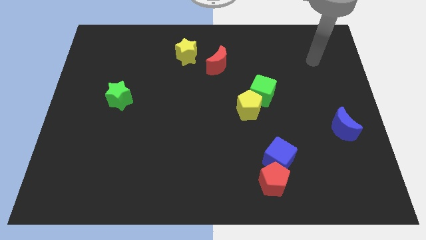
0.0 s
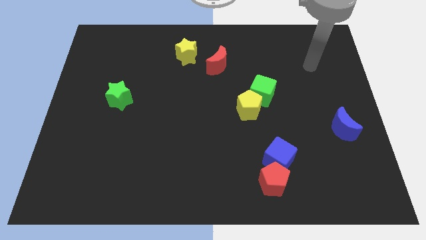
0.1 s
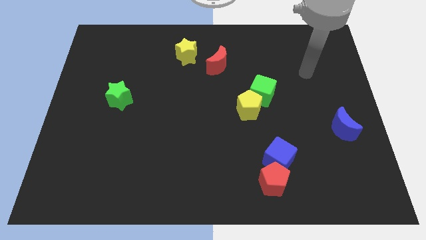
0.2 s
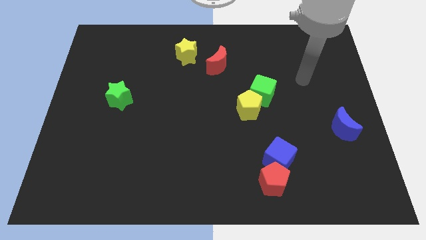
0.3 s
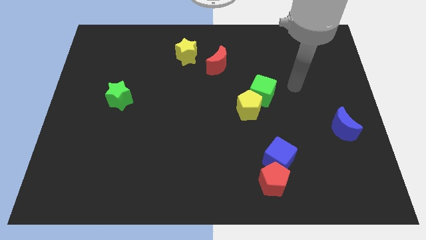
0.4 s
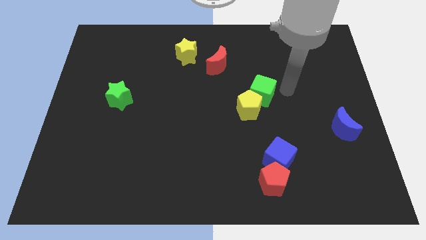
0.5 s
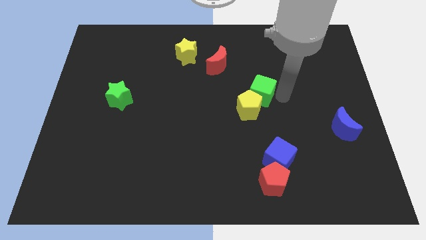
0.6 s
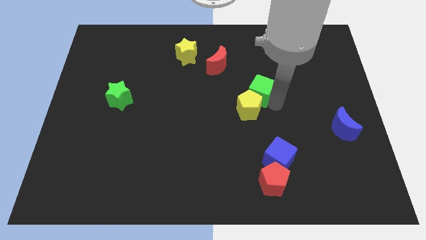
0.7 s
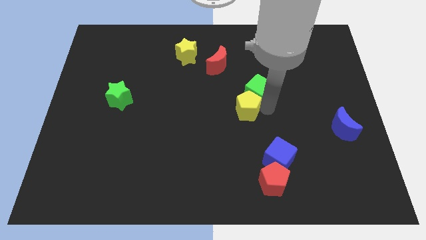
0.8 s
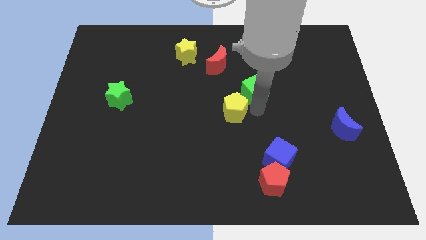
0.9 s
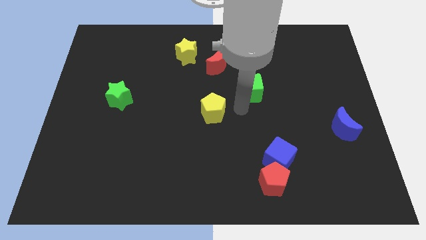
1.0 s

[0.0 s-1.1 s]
pull the green cube apart from the yellow pentagon

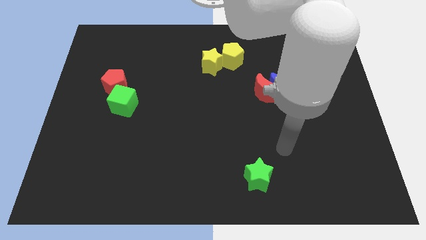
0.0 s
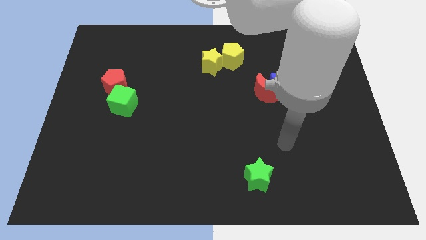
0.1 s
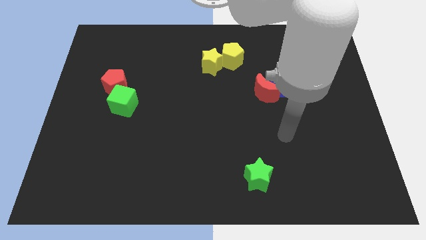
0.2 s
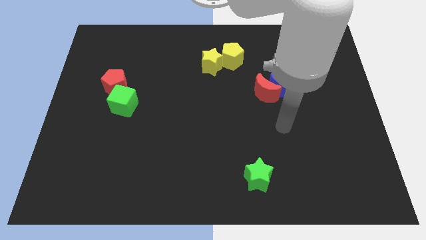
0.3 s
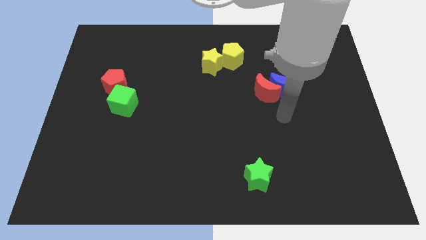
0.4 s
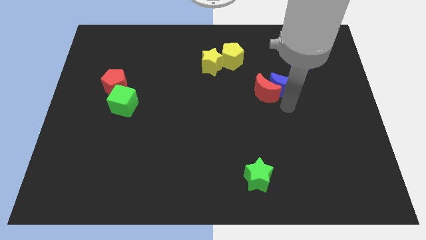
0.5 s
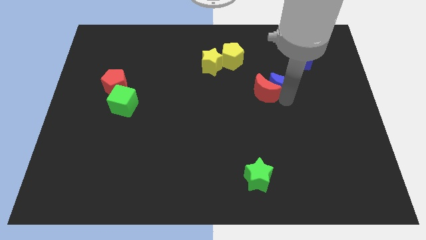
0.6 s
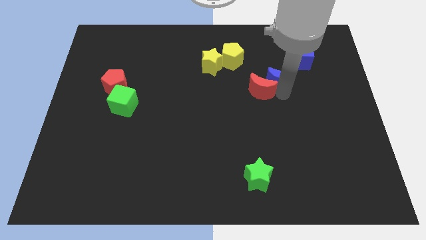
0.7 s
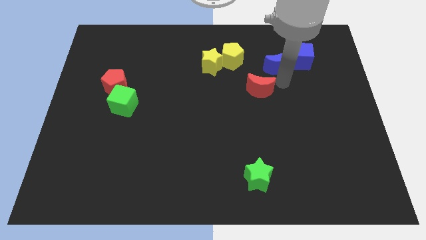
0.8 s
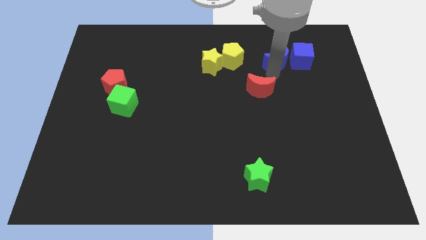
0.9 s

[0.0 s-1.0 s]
separate the red moon from the blue moon

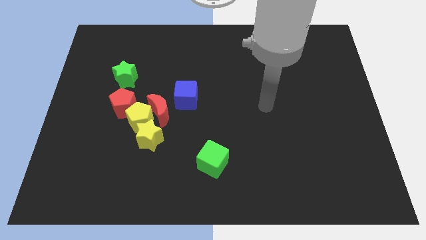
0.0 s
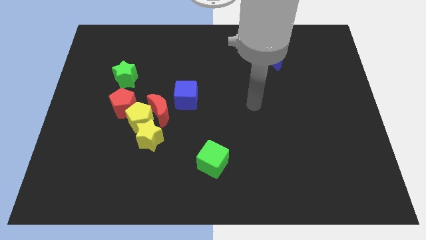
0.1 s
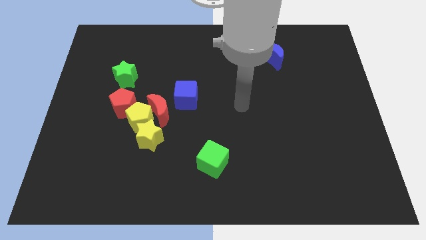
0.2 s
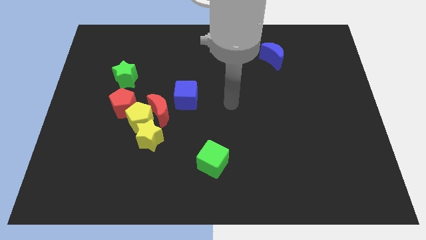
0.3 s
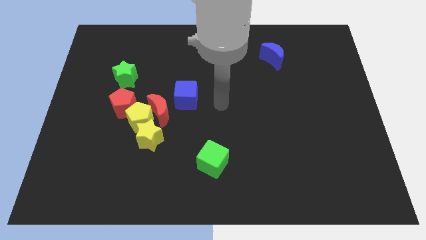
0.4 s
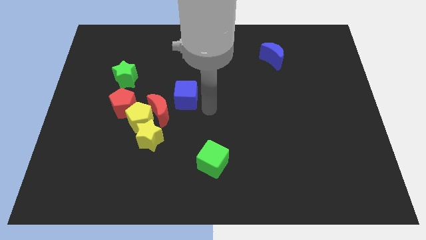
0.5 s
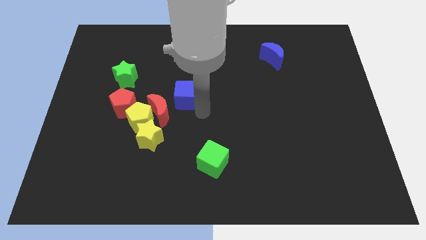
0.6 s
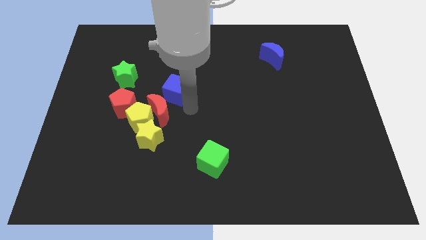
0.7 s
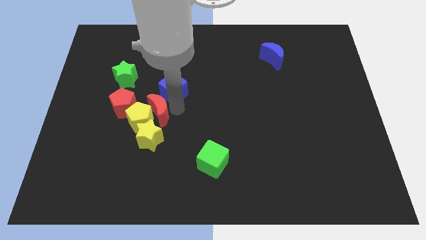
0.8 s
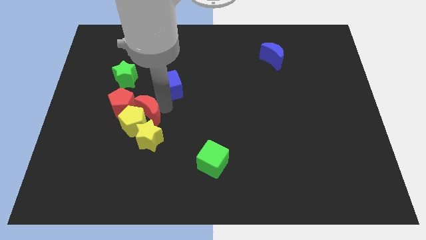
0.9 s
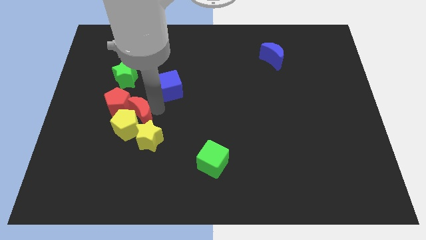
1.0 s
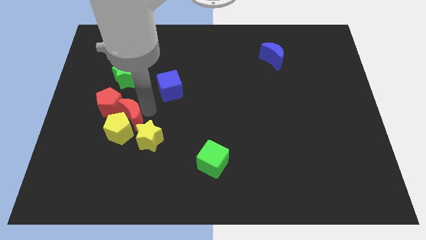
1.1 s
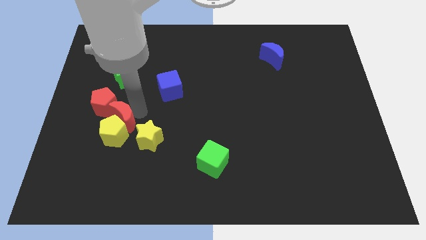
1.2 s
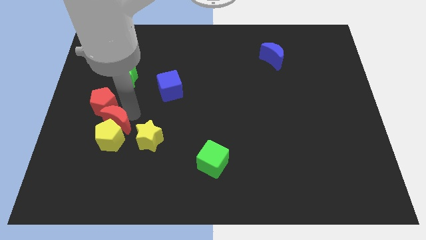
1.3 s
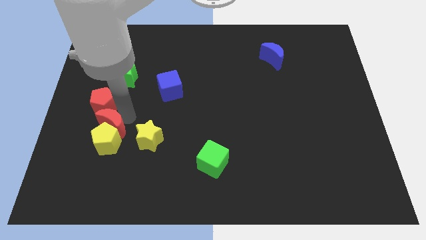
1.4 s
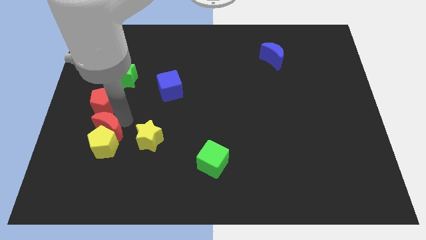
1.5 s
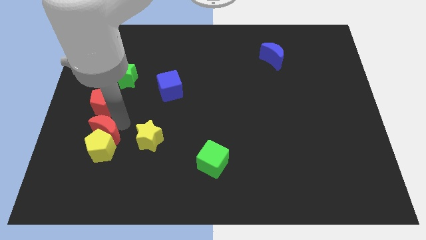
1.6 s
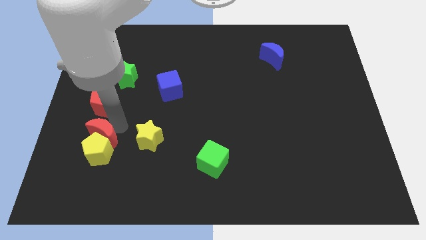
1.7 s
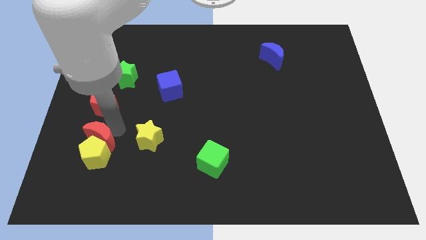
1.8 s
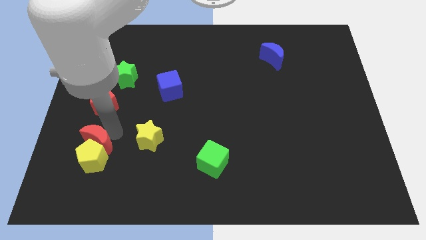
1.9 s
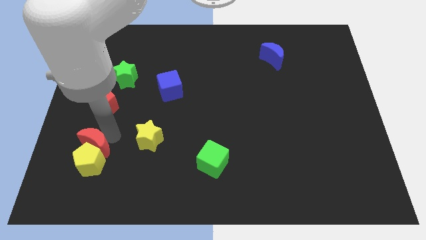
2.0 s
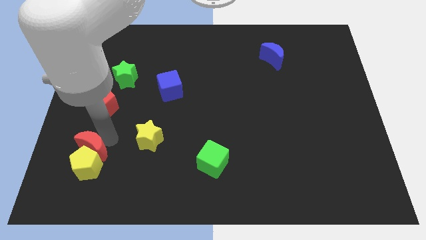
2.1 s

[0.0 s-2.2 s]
move the yellow pentagon away from the group

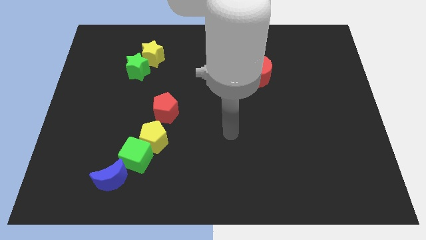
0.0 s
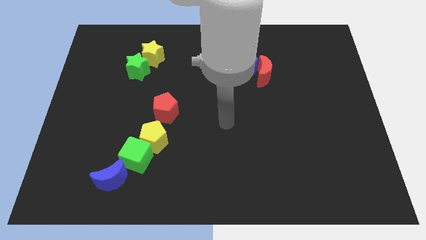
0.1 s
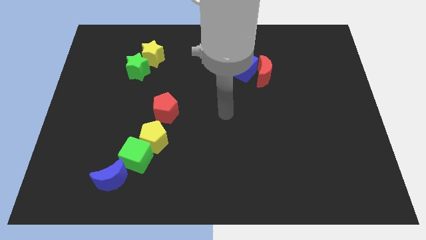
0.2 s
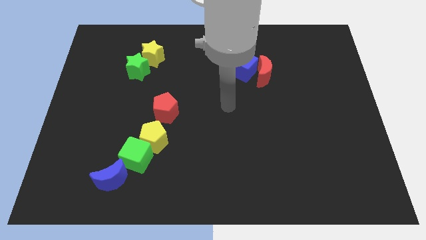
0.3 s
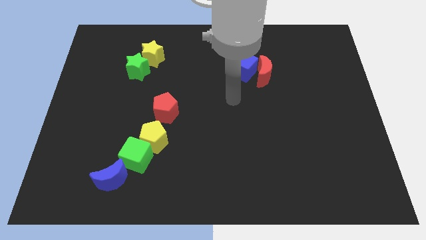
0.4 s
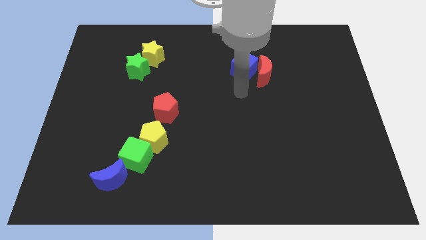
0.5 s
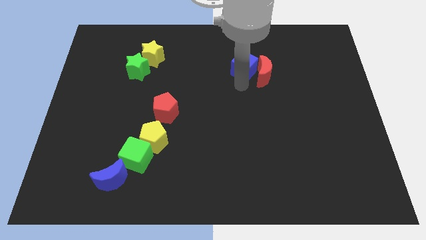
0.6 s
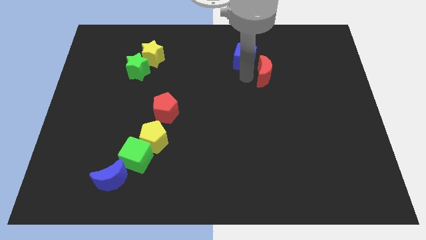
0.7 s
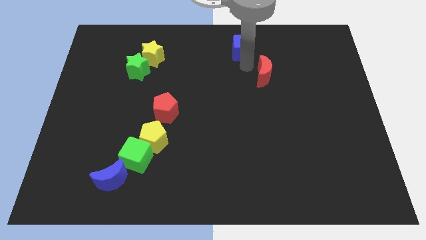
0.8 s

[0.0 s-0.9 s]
separate the red moon from the blue cube

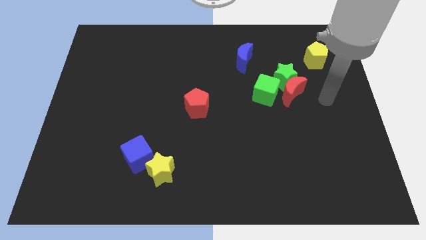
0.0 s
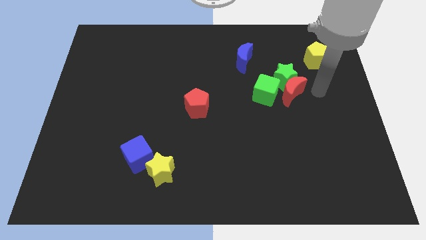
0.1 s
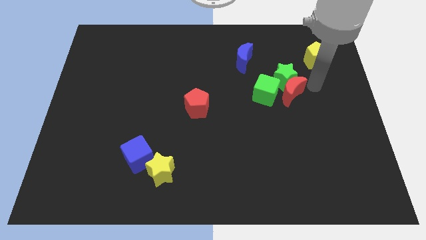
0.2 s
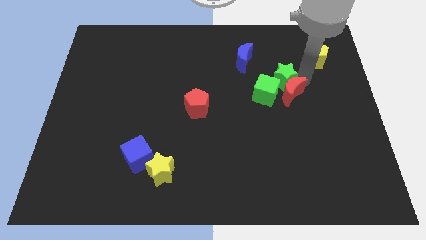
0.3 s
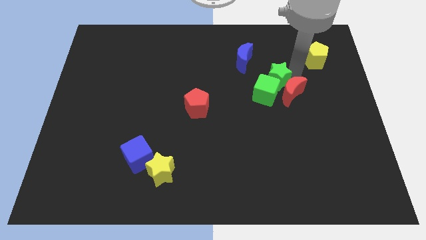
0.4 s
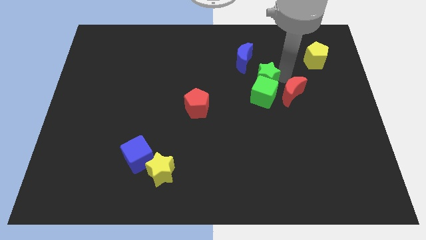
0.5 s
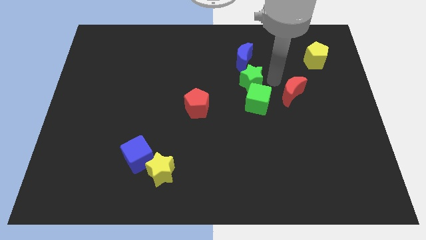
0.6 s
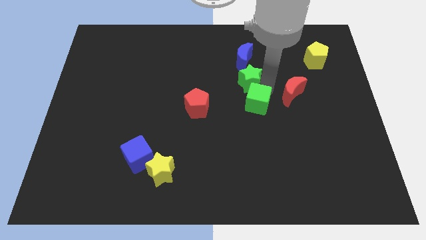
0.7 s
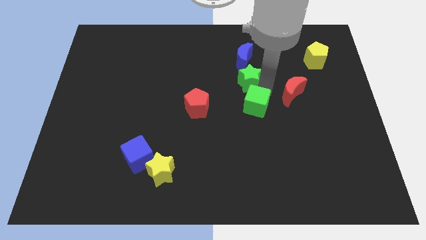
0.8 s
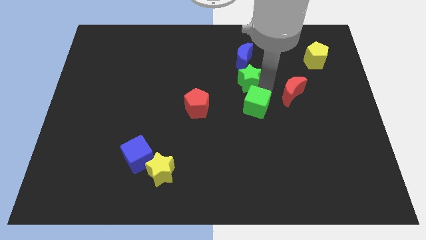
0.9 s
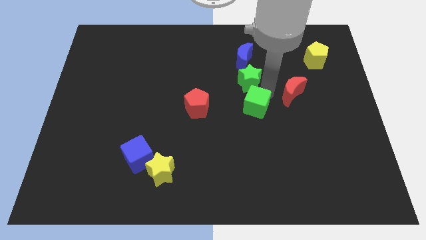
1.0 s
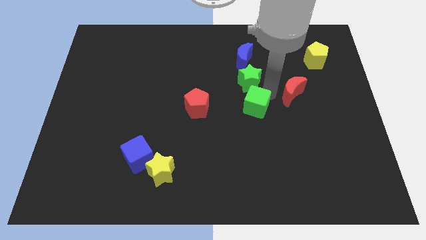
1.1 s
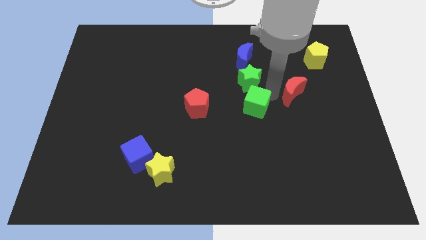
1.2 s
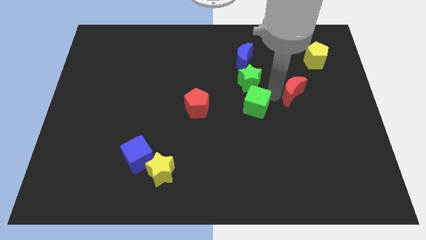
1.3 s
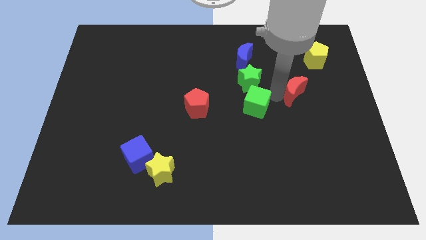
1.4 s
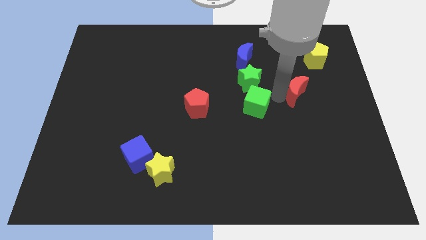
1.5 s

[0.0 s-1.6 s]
move the red moon away from the green star and green cube

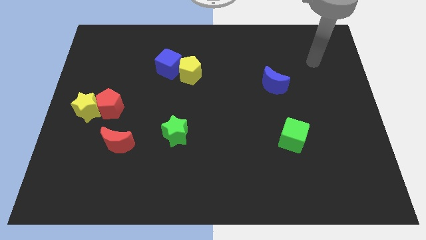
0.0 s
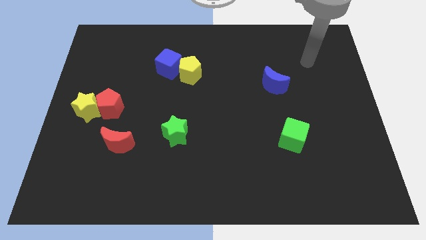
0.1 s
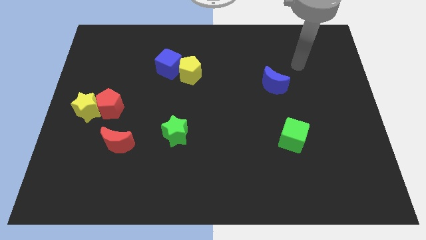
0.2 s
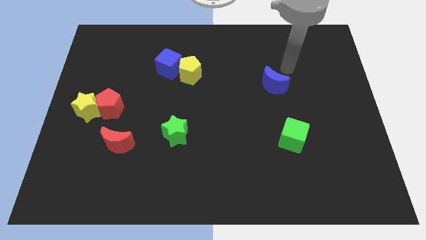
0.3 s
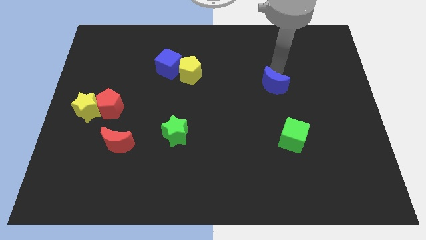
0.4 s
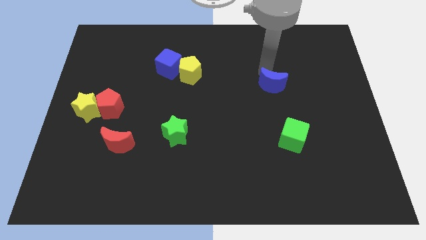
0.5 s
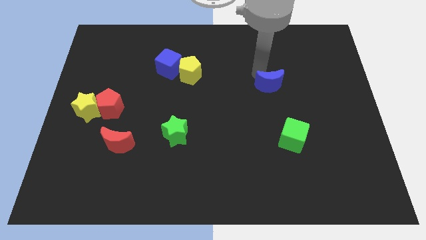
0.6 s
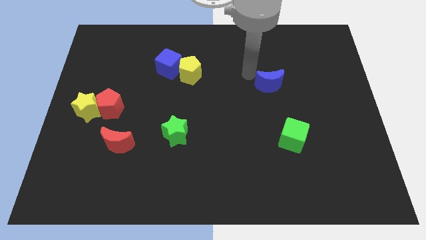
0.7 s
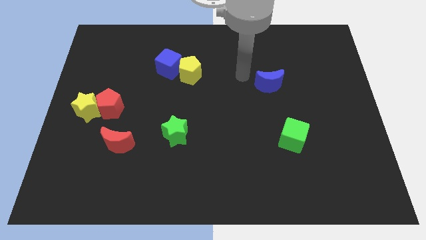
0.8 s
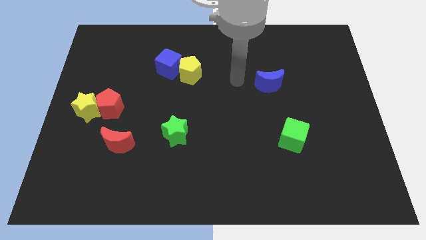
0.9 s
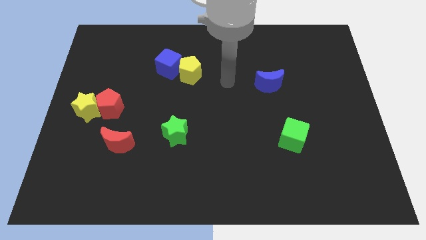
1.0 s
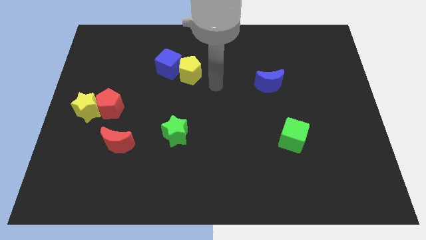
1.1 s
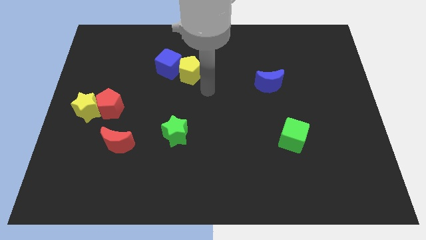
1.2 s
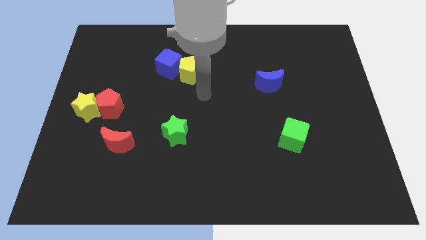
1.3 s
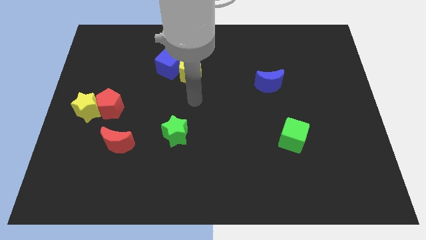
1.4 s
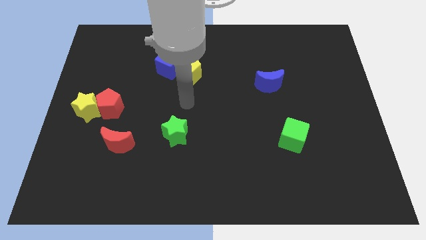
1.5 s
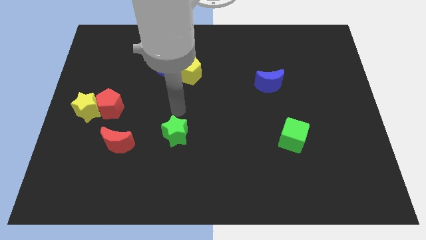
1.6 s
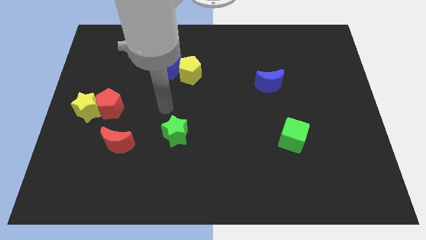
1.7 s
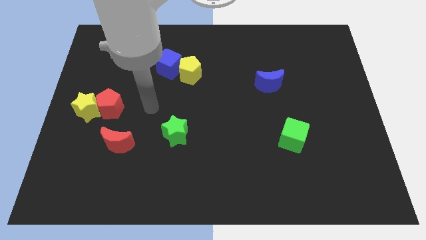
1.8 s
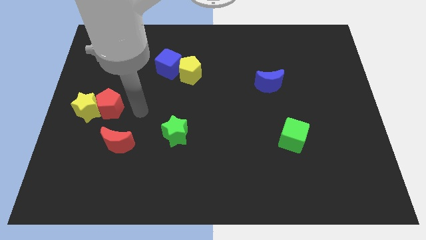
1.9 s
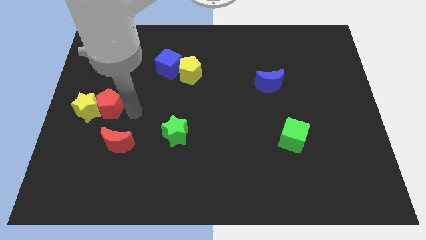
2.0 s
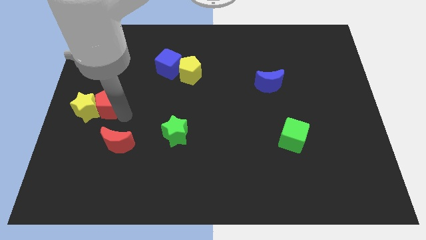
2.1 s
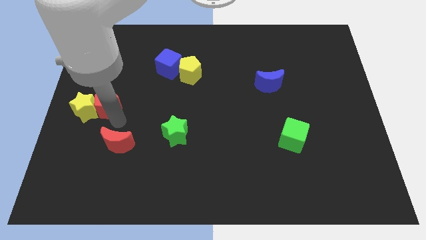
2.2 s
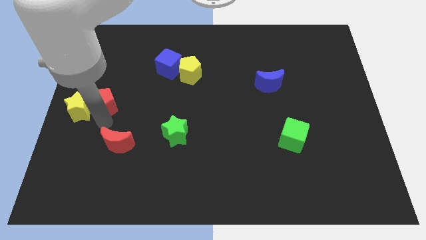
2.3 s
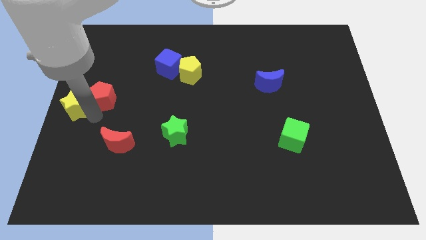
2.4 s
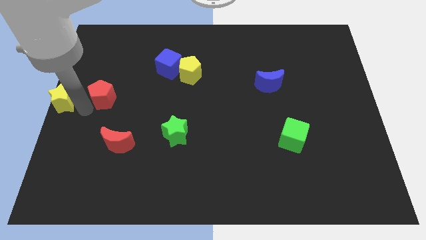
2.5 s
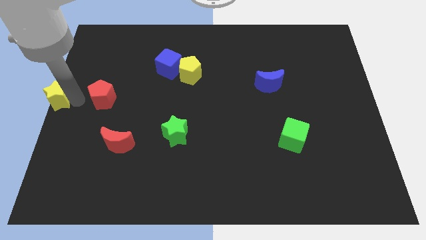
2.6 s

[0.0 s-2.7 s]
separate the red pentagon from the yellow star
